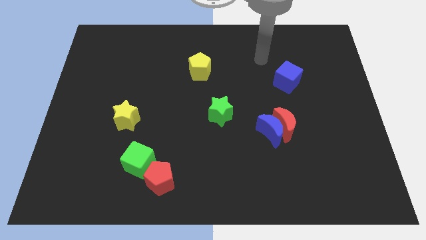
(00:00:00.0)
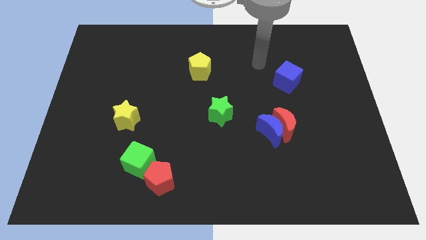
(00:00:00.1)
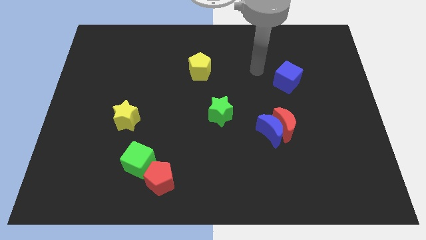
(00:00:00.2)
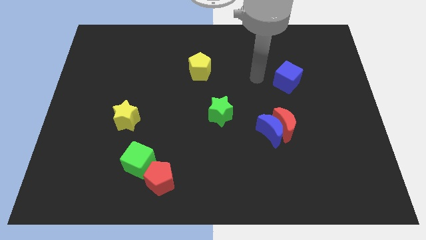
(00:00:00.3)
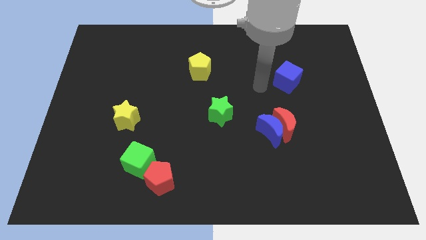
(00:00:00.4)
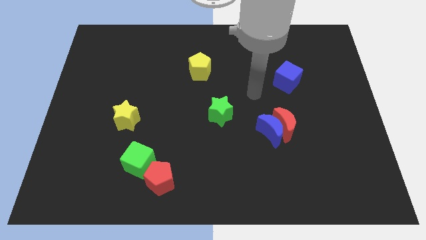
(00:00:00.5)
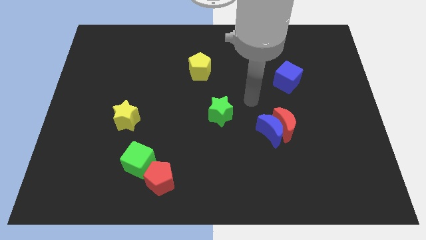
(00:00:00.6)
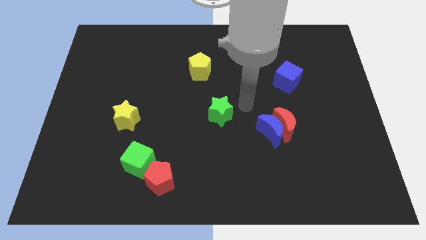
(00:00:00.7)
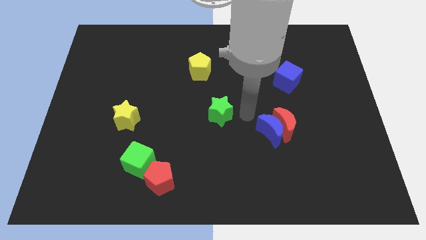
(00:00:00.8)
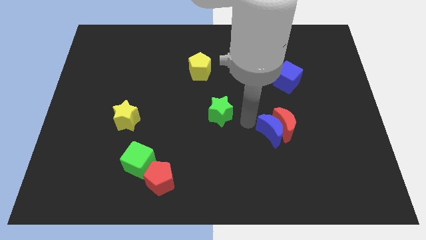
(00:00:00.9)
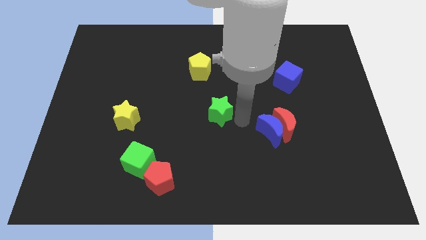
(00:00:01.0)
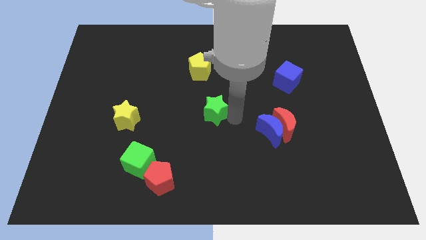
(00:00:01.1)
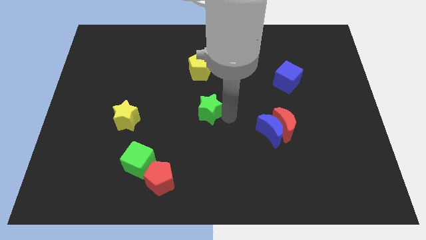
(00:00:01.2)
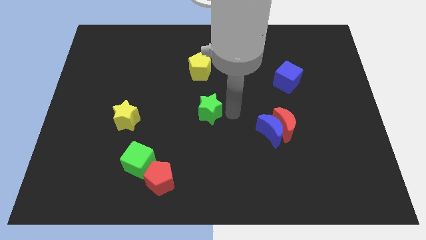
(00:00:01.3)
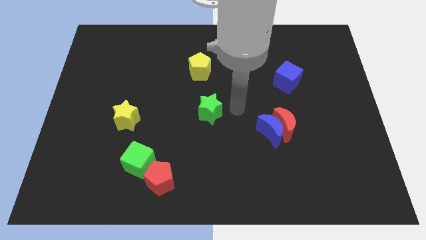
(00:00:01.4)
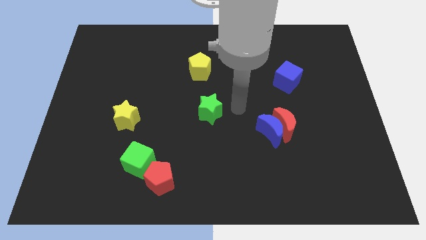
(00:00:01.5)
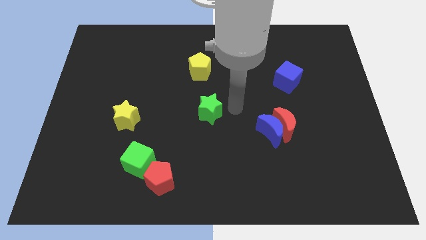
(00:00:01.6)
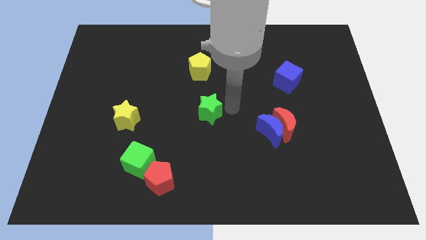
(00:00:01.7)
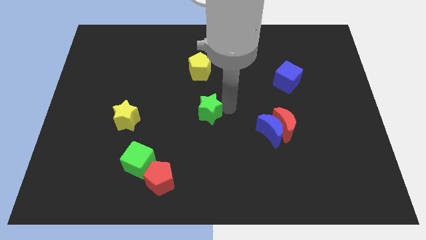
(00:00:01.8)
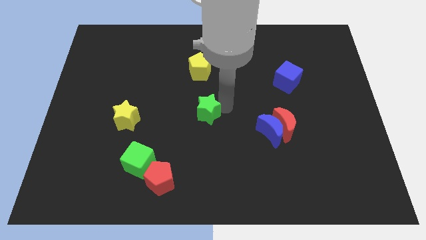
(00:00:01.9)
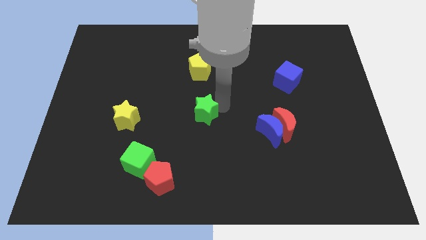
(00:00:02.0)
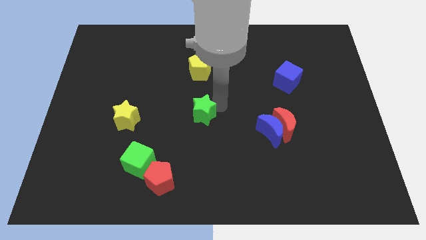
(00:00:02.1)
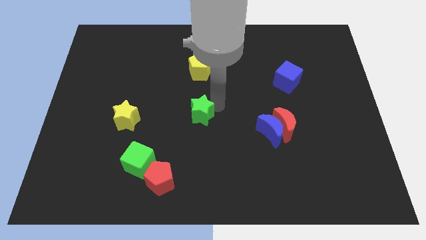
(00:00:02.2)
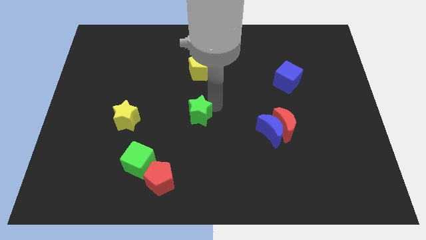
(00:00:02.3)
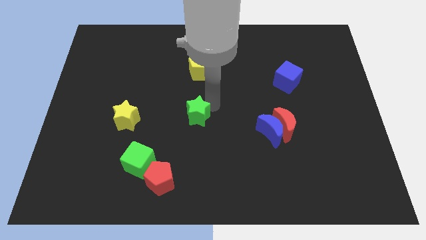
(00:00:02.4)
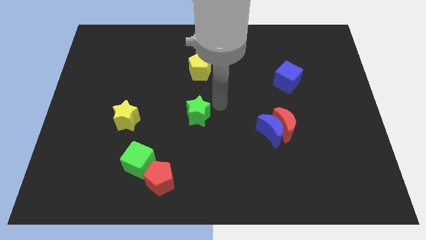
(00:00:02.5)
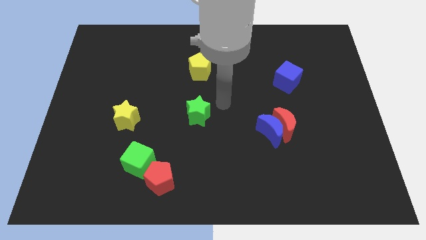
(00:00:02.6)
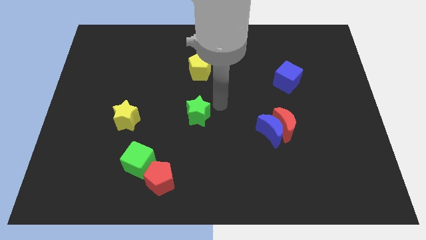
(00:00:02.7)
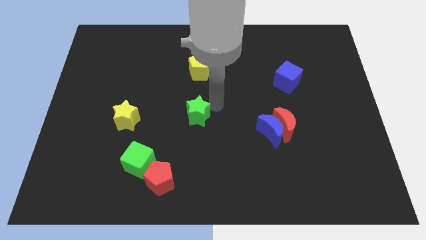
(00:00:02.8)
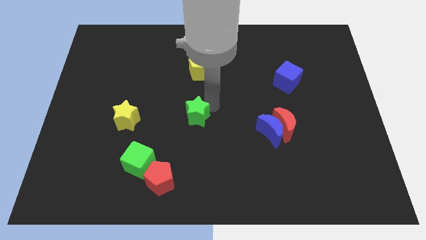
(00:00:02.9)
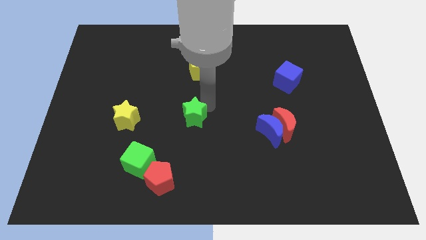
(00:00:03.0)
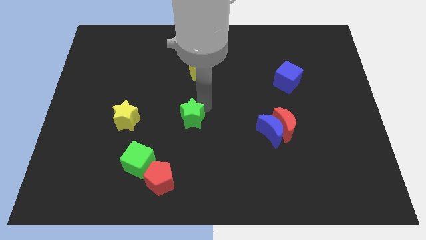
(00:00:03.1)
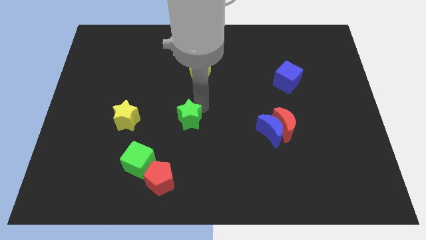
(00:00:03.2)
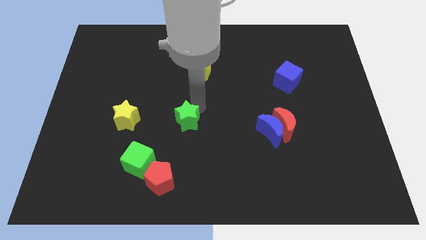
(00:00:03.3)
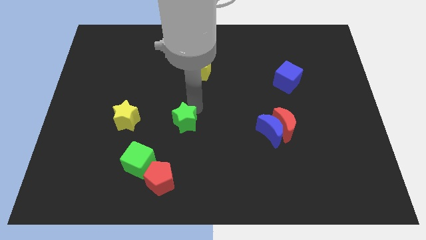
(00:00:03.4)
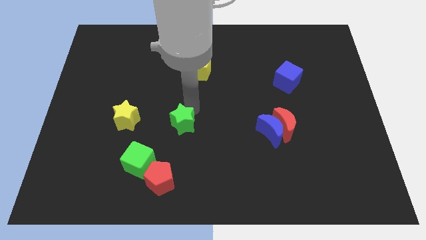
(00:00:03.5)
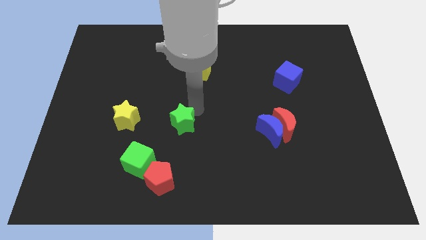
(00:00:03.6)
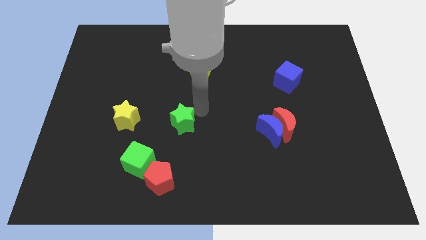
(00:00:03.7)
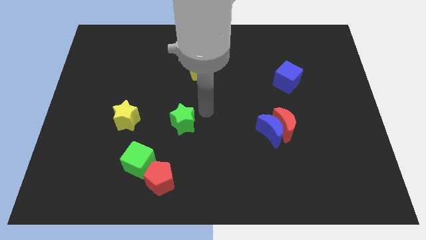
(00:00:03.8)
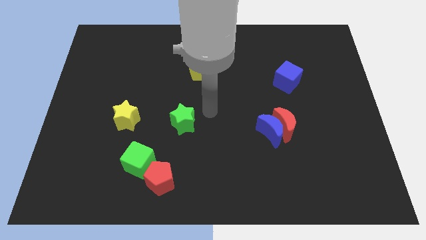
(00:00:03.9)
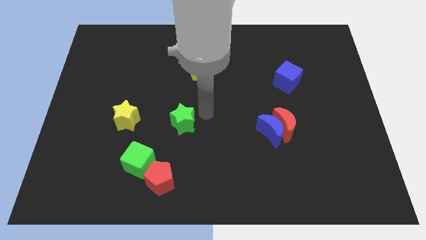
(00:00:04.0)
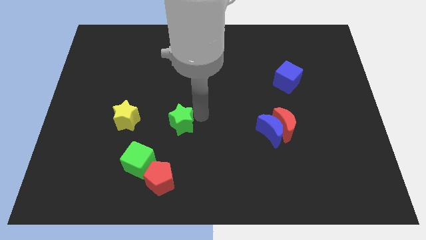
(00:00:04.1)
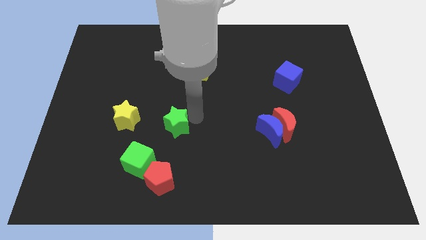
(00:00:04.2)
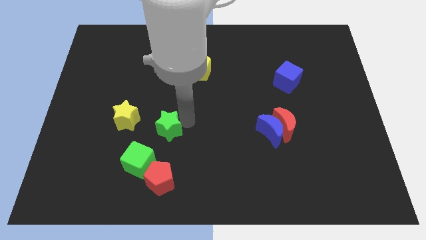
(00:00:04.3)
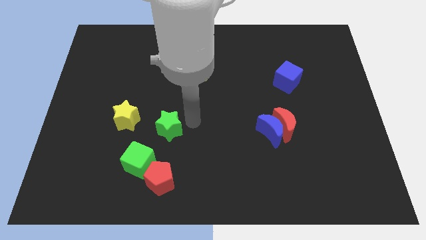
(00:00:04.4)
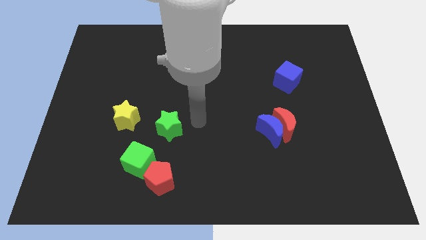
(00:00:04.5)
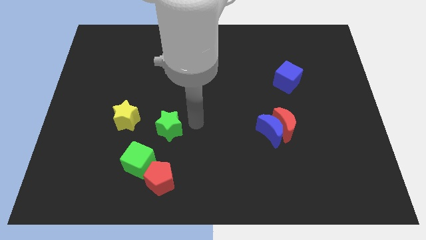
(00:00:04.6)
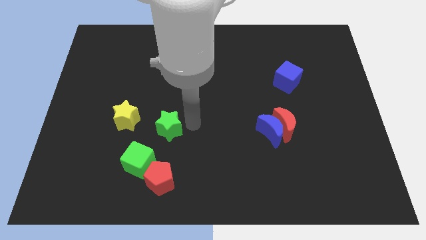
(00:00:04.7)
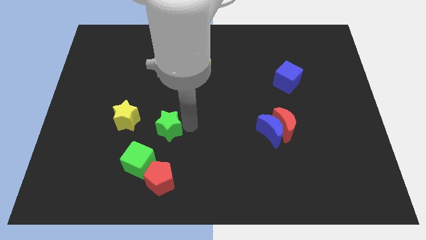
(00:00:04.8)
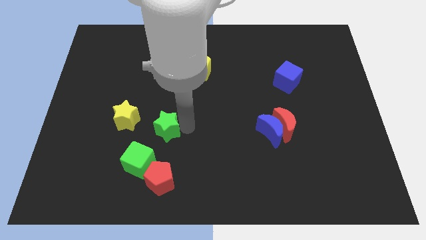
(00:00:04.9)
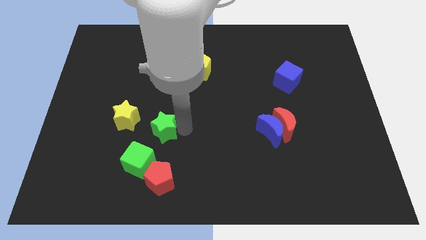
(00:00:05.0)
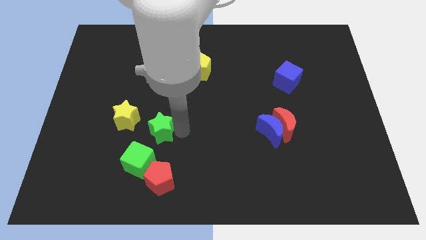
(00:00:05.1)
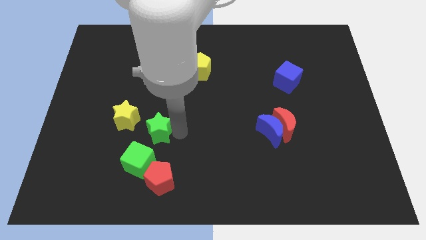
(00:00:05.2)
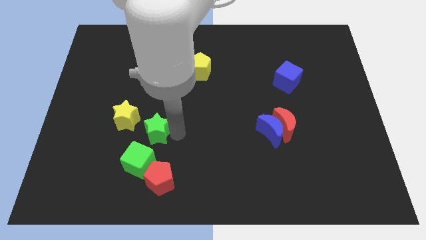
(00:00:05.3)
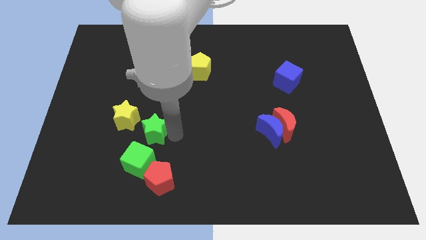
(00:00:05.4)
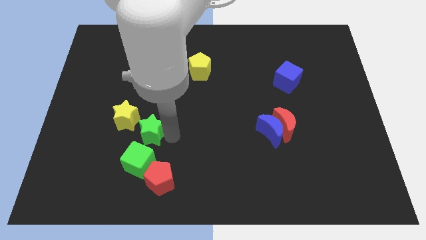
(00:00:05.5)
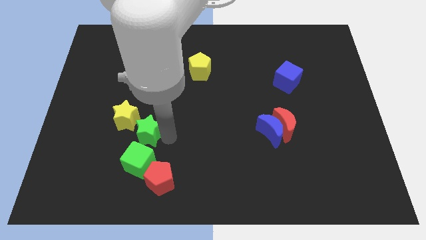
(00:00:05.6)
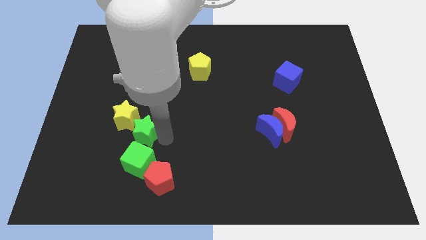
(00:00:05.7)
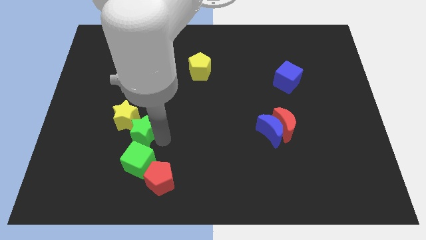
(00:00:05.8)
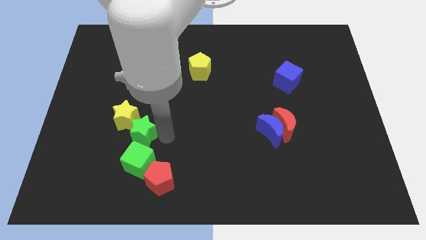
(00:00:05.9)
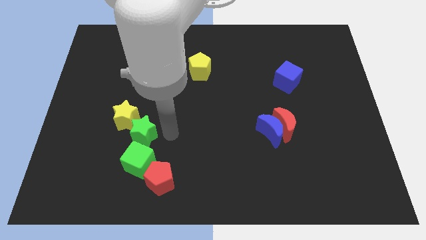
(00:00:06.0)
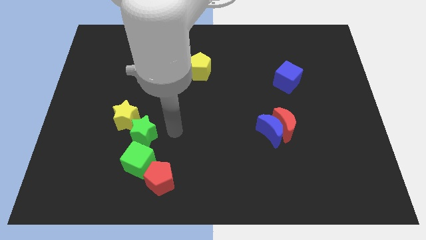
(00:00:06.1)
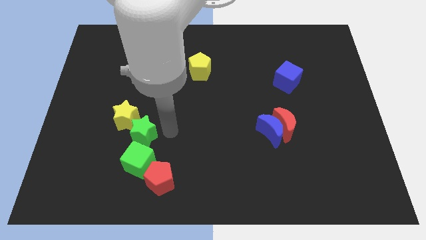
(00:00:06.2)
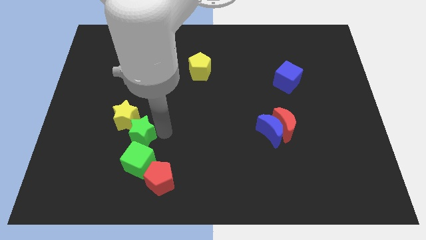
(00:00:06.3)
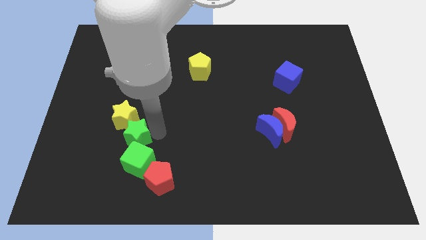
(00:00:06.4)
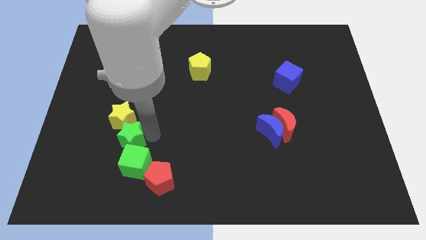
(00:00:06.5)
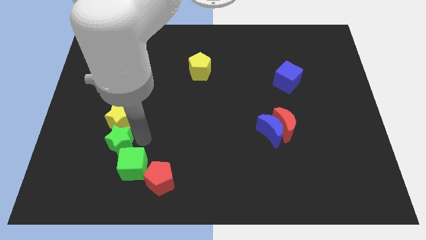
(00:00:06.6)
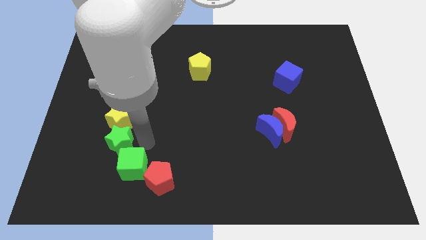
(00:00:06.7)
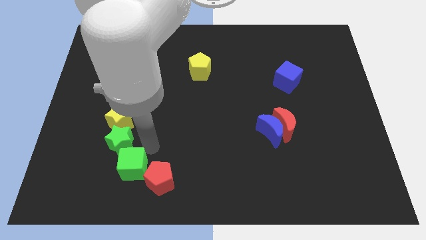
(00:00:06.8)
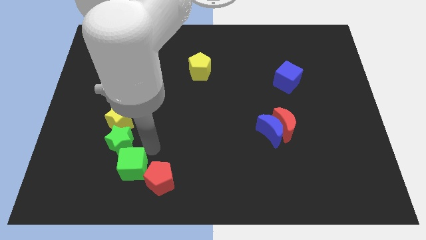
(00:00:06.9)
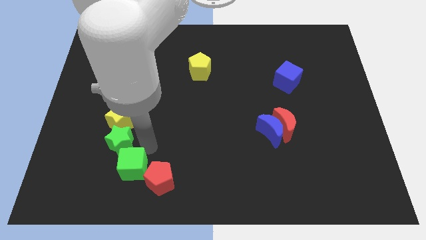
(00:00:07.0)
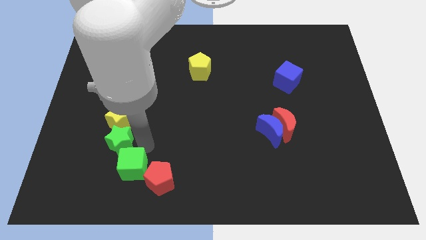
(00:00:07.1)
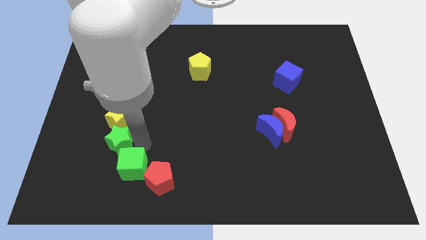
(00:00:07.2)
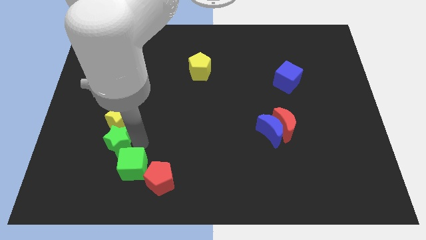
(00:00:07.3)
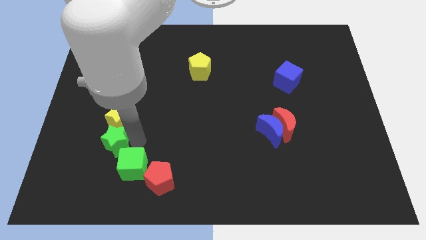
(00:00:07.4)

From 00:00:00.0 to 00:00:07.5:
put the green star diagonally down and to the left of the yellow star
